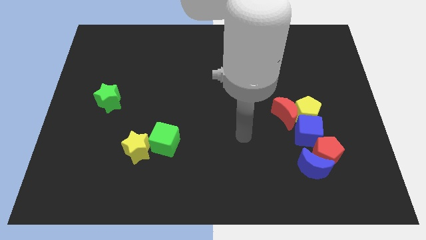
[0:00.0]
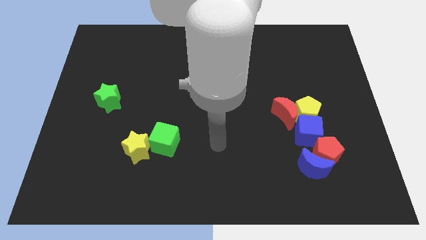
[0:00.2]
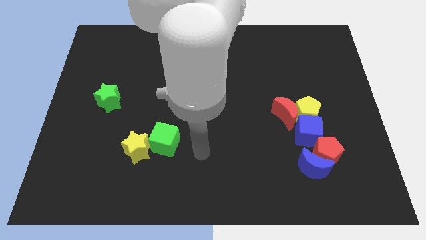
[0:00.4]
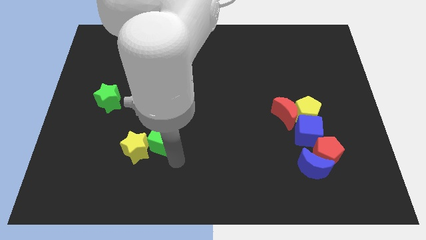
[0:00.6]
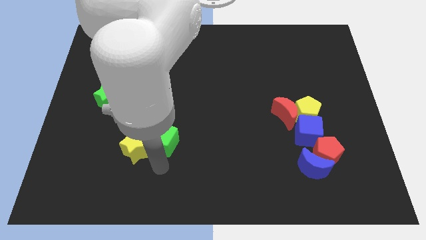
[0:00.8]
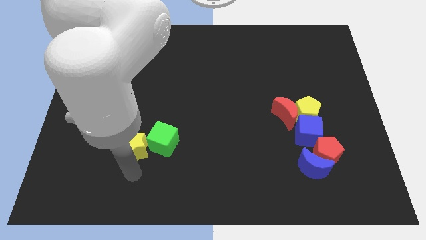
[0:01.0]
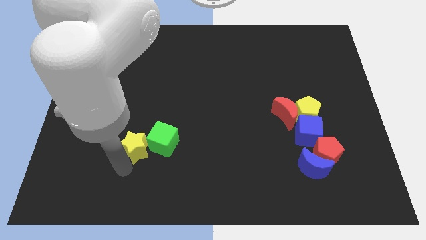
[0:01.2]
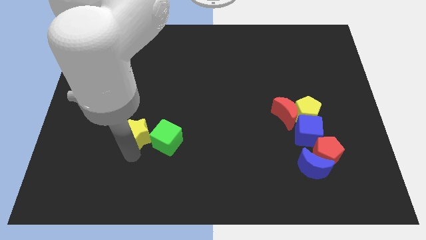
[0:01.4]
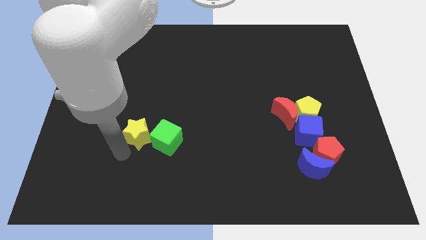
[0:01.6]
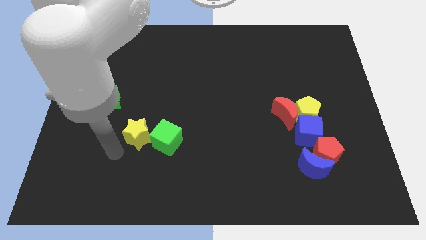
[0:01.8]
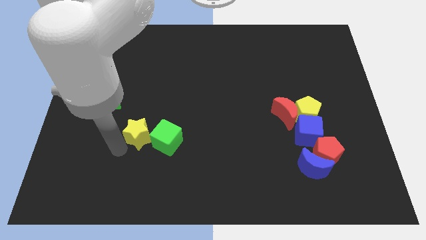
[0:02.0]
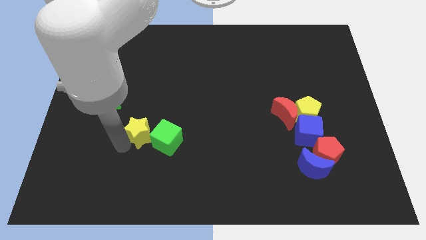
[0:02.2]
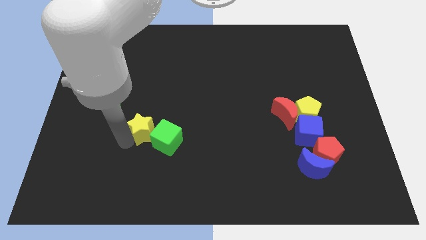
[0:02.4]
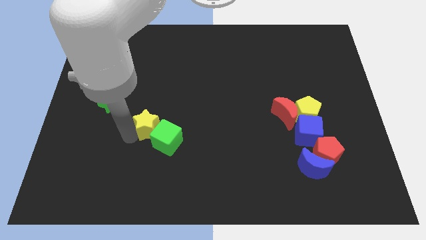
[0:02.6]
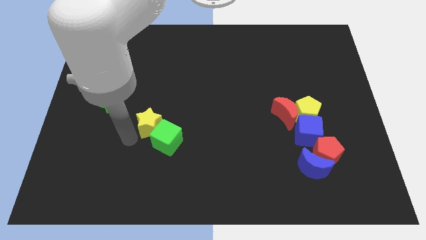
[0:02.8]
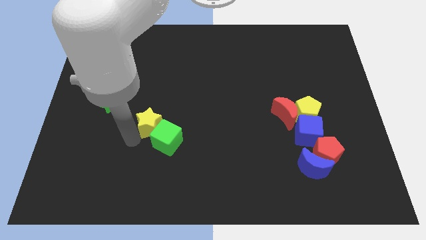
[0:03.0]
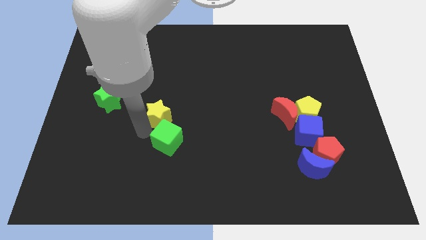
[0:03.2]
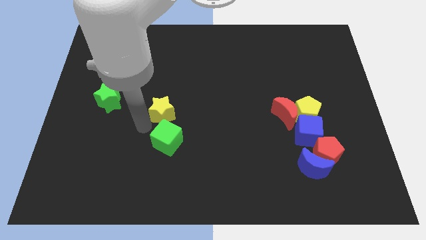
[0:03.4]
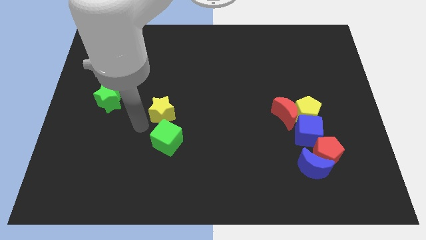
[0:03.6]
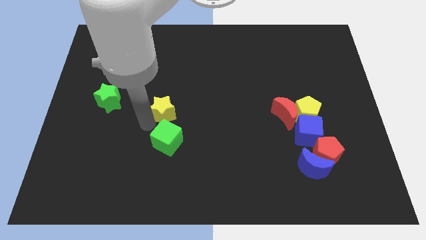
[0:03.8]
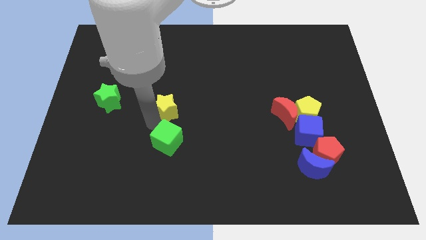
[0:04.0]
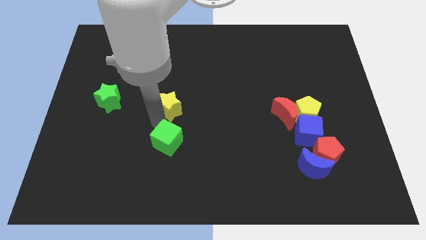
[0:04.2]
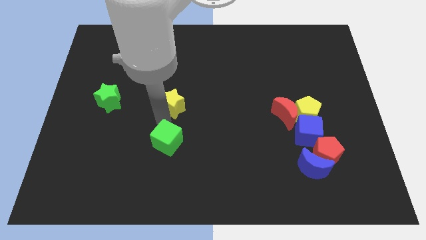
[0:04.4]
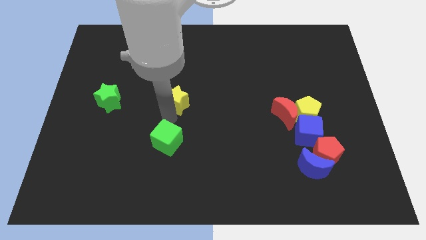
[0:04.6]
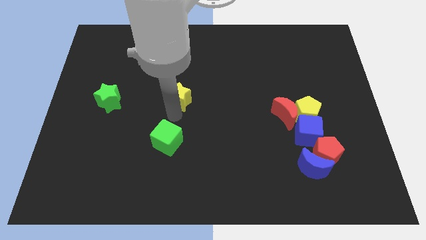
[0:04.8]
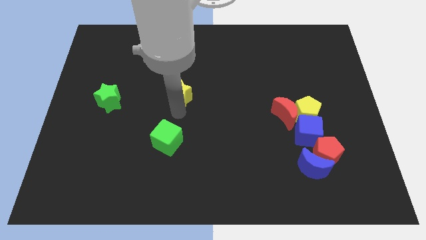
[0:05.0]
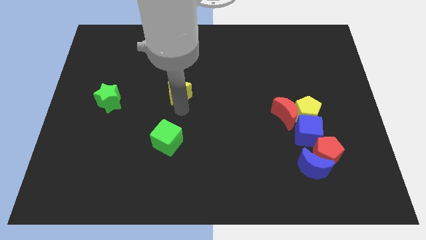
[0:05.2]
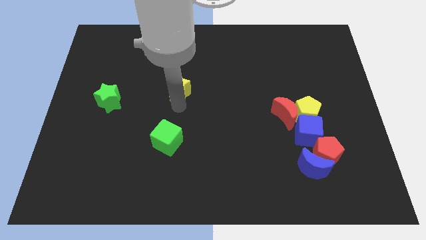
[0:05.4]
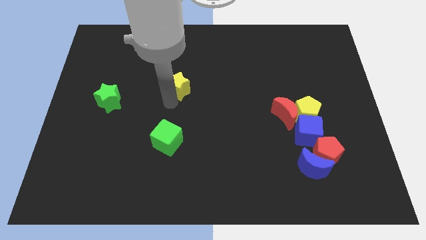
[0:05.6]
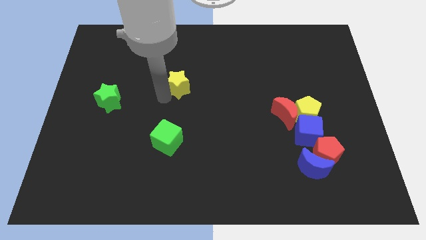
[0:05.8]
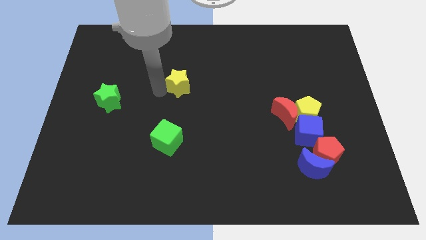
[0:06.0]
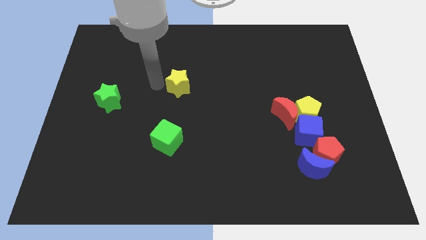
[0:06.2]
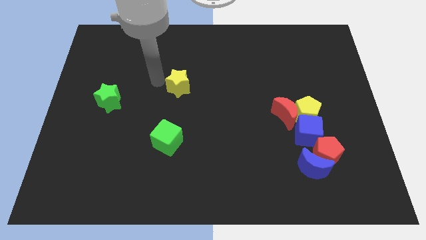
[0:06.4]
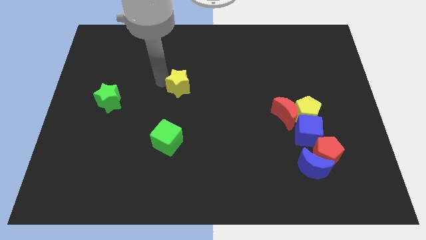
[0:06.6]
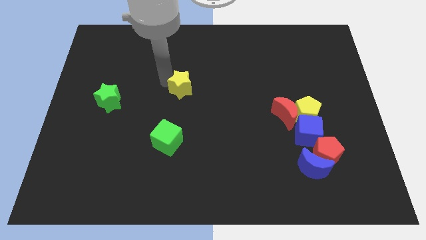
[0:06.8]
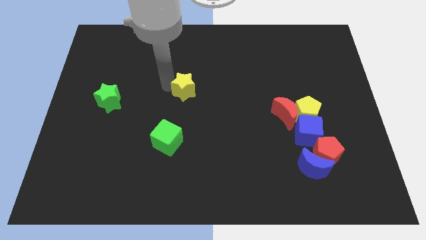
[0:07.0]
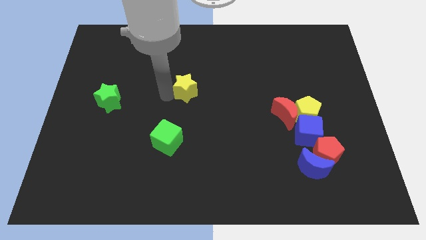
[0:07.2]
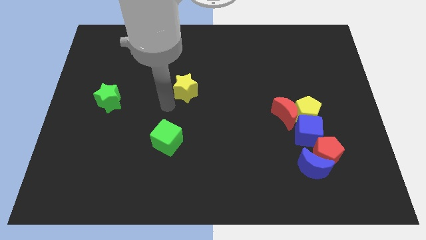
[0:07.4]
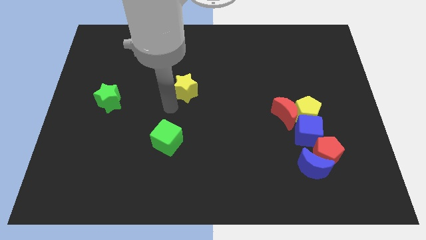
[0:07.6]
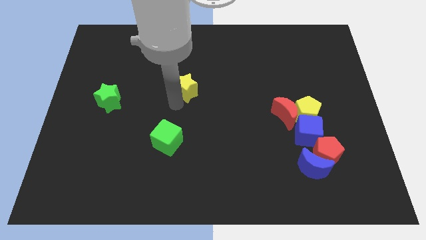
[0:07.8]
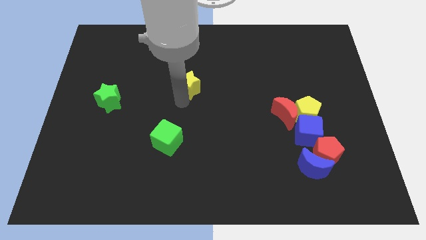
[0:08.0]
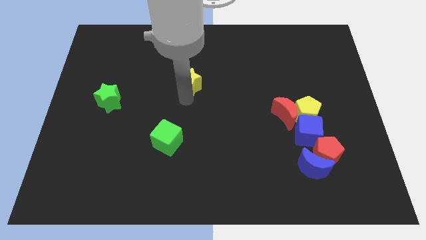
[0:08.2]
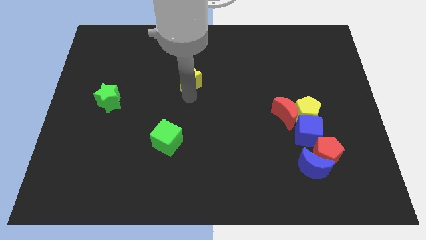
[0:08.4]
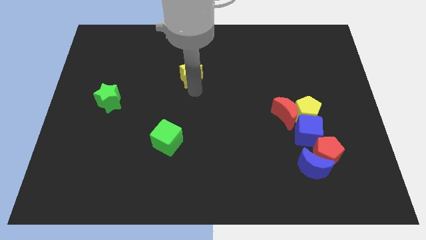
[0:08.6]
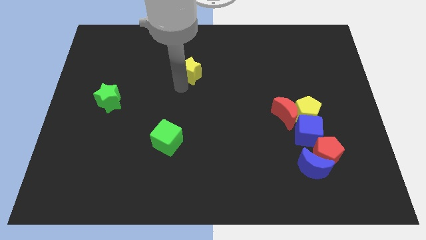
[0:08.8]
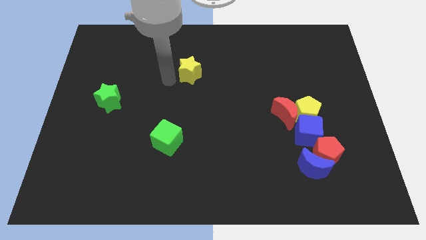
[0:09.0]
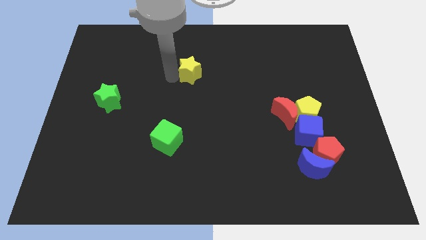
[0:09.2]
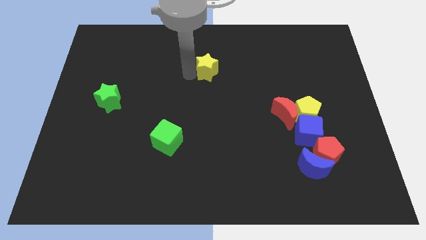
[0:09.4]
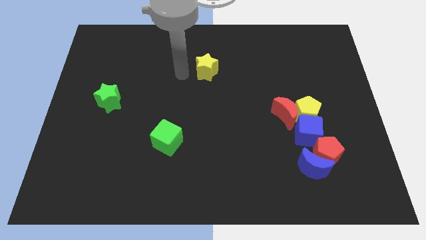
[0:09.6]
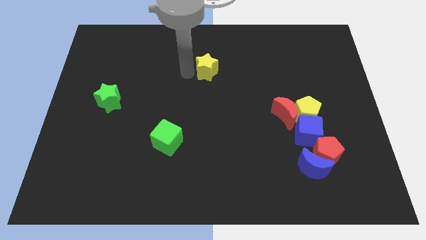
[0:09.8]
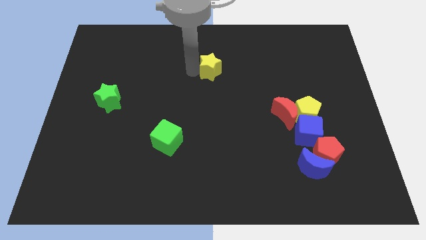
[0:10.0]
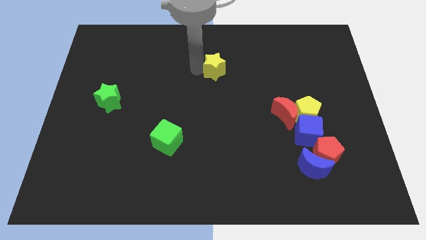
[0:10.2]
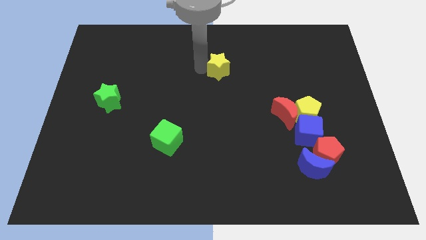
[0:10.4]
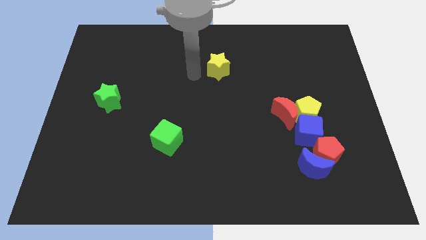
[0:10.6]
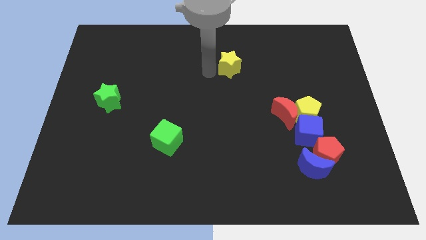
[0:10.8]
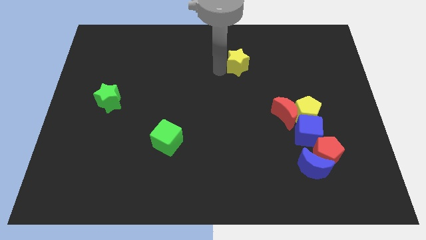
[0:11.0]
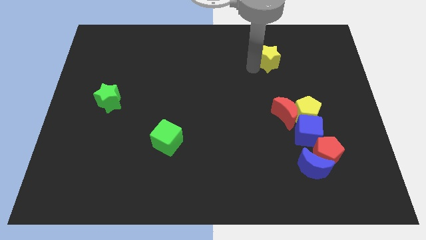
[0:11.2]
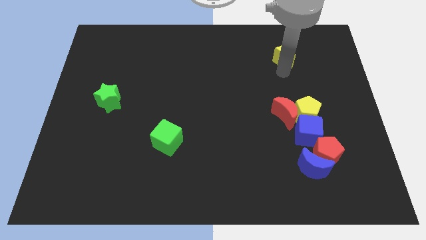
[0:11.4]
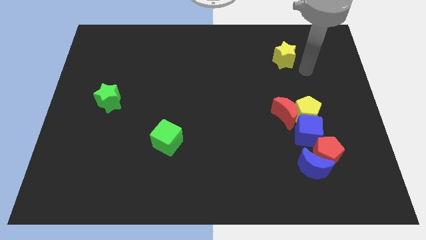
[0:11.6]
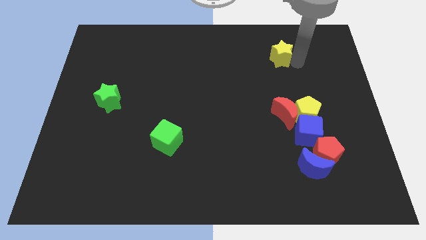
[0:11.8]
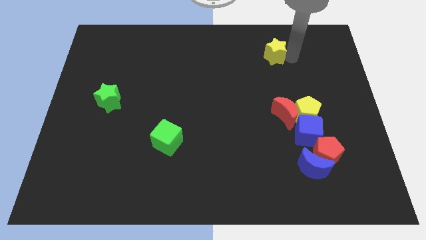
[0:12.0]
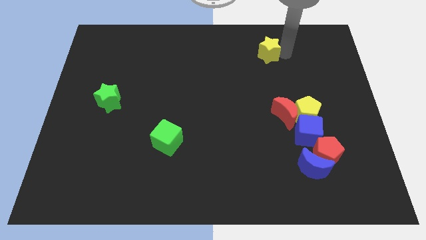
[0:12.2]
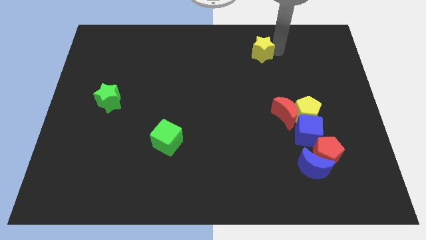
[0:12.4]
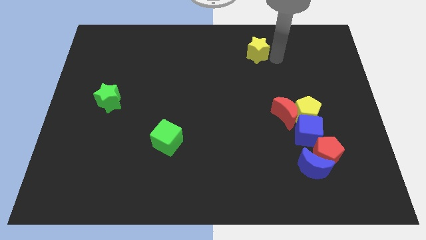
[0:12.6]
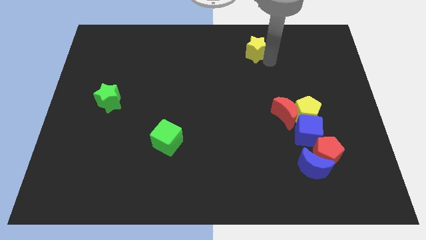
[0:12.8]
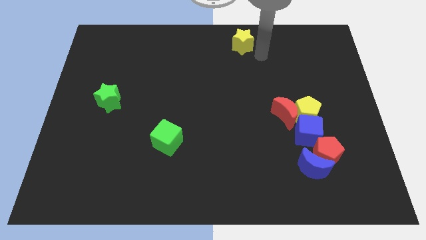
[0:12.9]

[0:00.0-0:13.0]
slide the yellow star to the towards your base

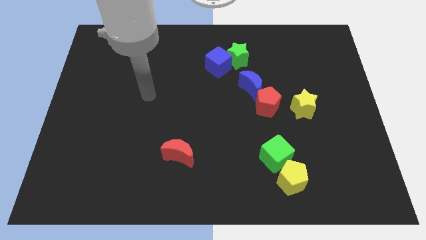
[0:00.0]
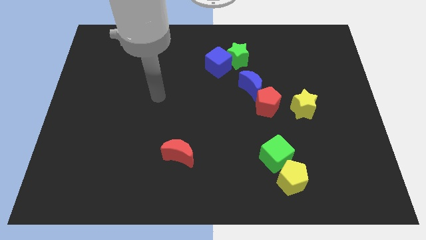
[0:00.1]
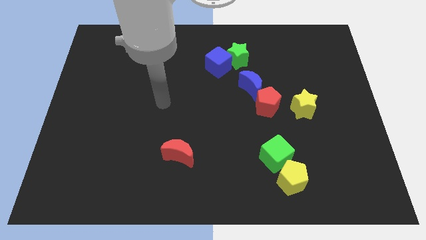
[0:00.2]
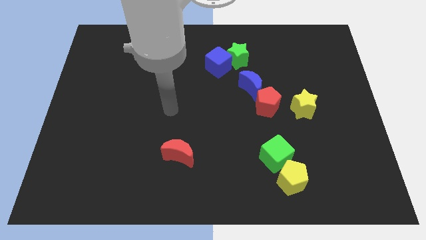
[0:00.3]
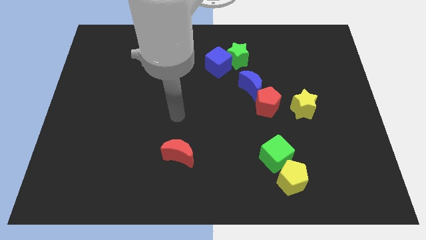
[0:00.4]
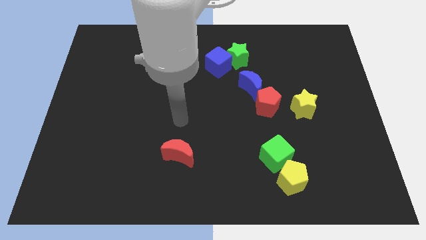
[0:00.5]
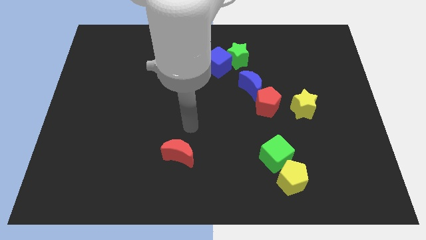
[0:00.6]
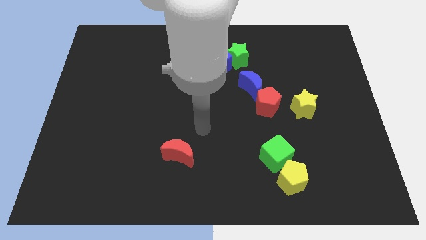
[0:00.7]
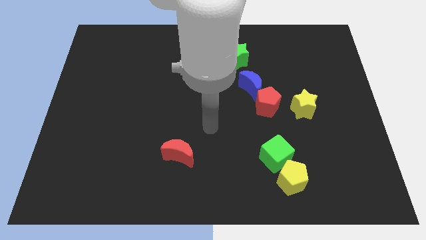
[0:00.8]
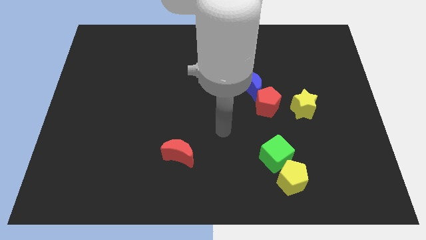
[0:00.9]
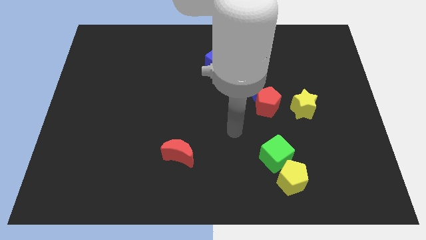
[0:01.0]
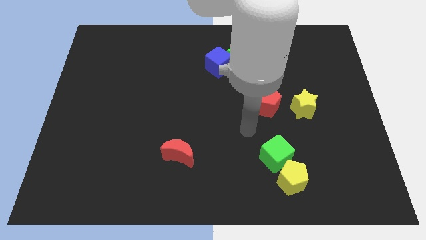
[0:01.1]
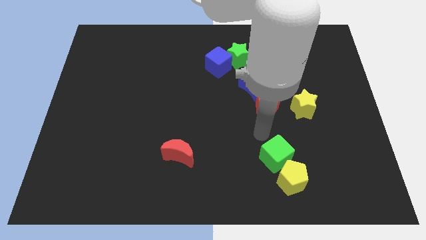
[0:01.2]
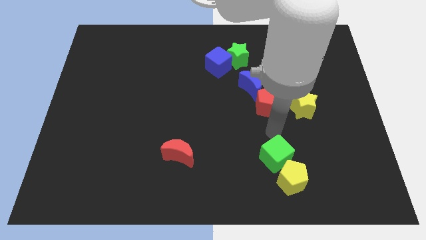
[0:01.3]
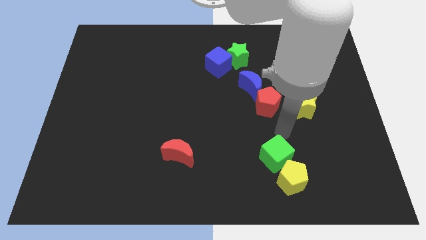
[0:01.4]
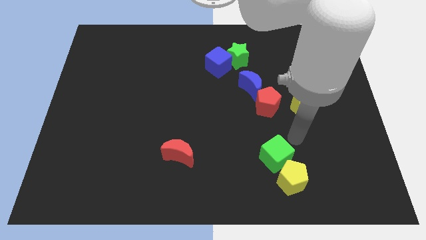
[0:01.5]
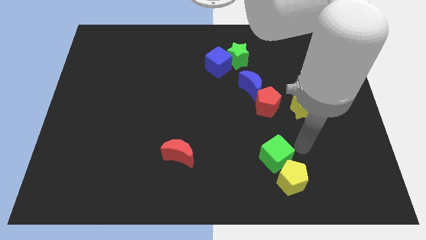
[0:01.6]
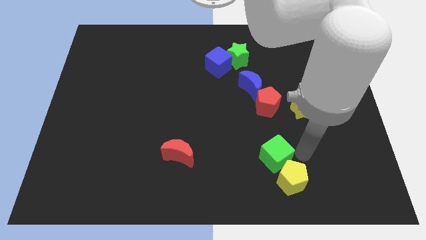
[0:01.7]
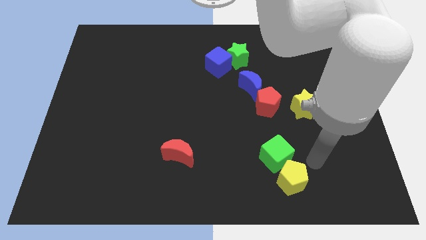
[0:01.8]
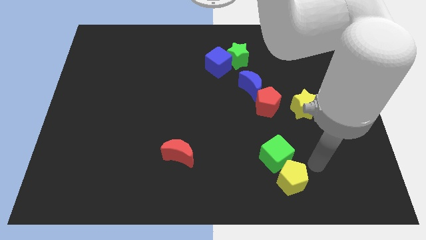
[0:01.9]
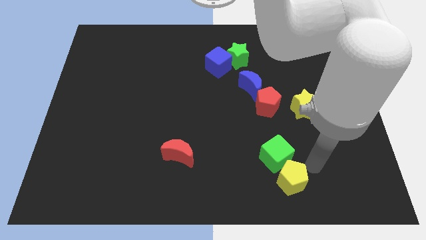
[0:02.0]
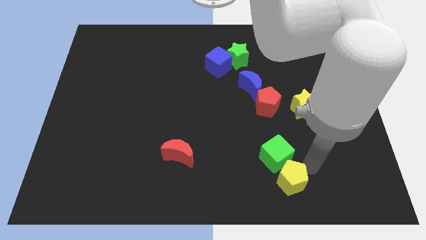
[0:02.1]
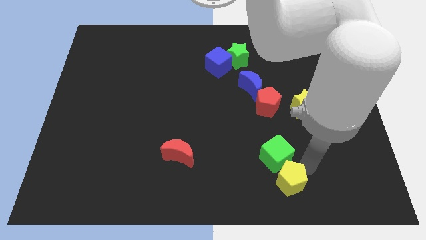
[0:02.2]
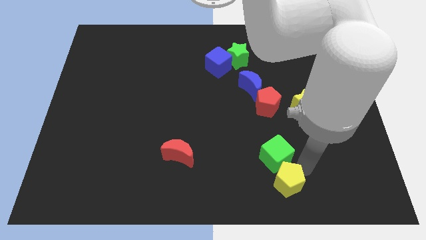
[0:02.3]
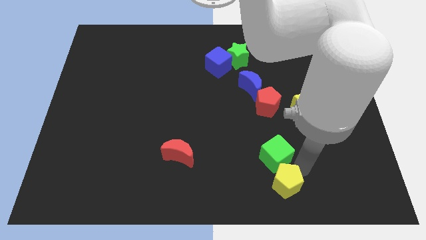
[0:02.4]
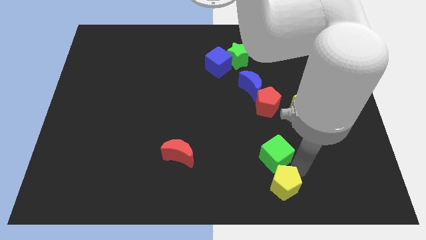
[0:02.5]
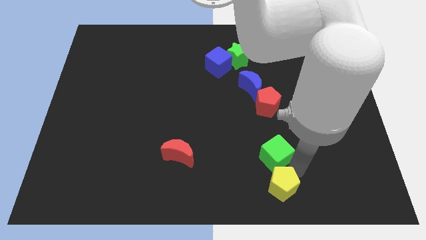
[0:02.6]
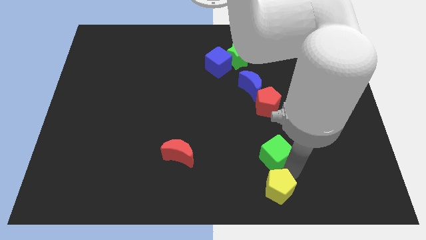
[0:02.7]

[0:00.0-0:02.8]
slide the yellow pentagon to the bottom side
